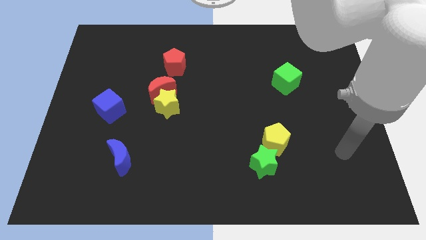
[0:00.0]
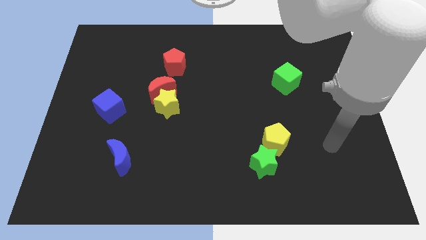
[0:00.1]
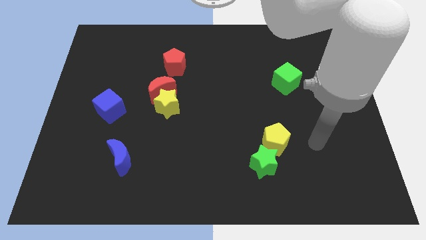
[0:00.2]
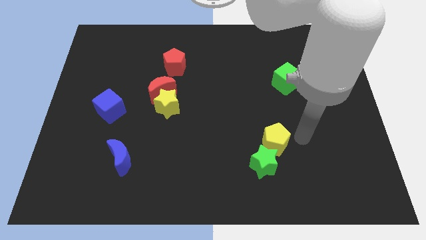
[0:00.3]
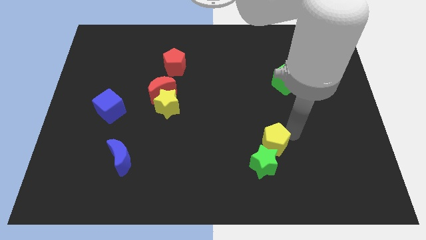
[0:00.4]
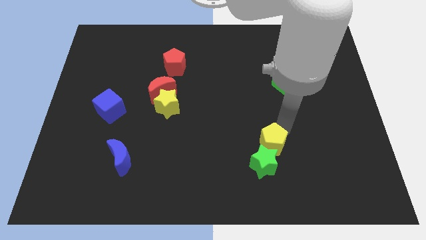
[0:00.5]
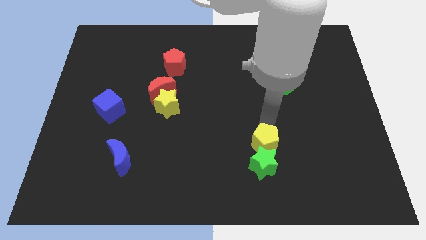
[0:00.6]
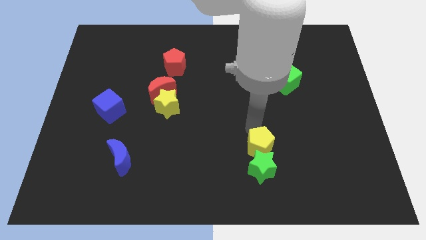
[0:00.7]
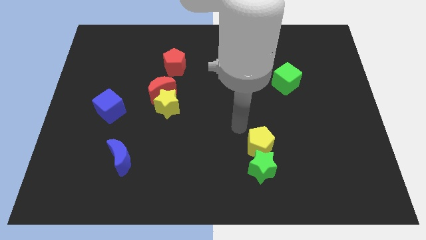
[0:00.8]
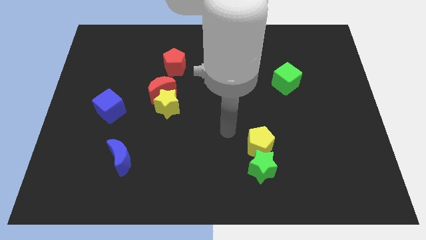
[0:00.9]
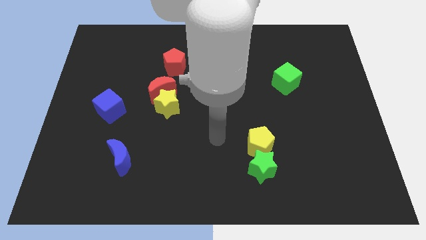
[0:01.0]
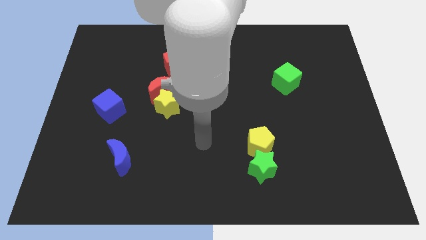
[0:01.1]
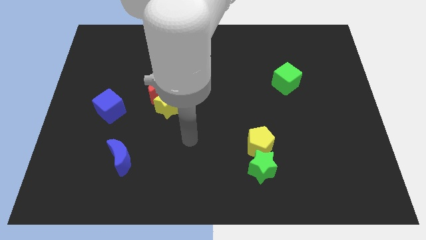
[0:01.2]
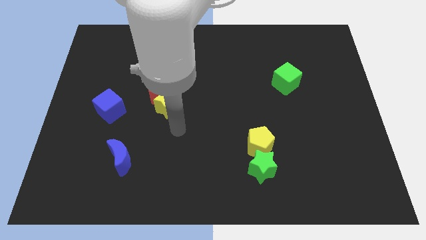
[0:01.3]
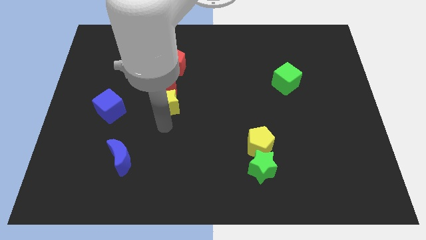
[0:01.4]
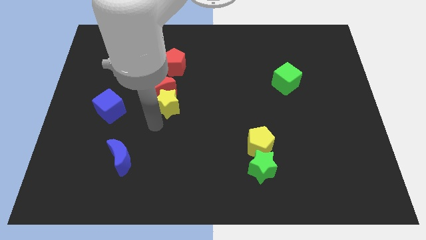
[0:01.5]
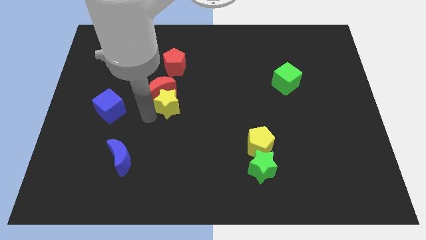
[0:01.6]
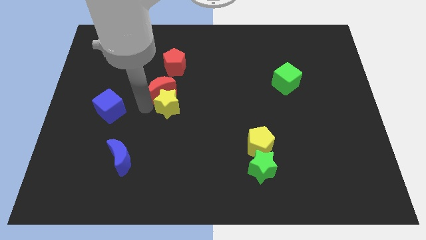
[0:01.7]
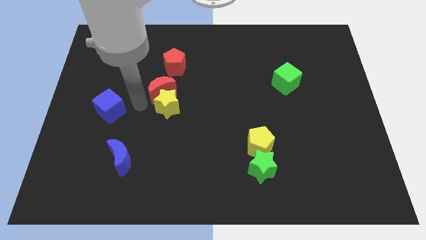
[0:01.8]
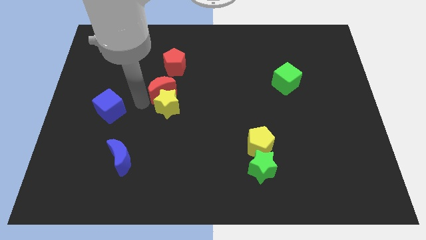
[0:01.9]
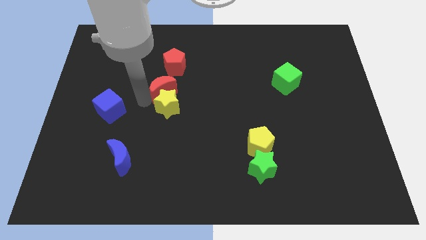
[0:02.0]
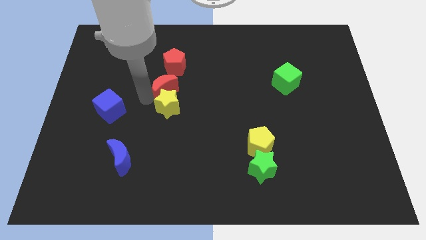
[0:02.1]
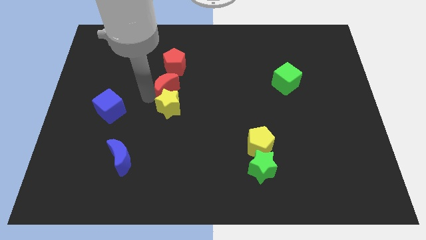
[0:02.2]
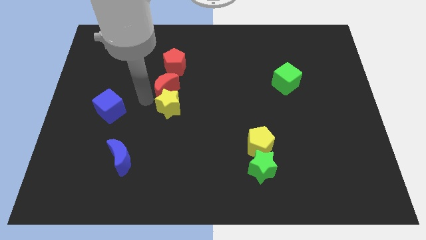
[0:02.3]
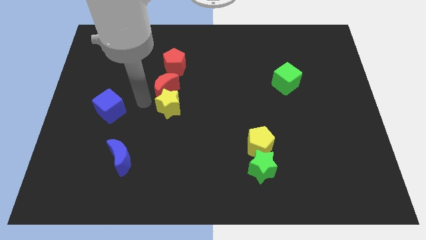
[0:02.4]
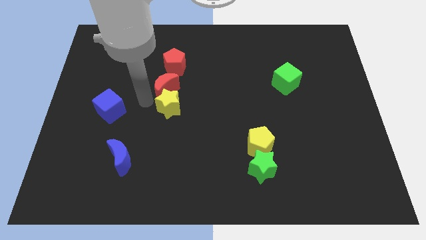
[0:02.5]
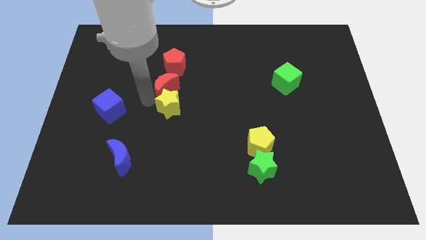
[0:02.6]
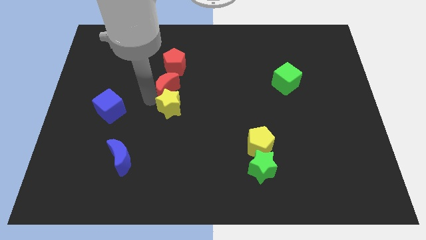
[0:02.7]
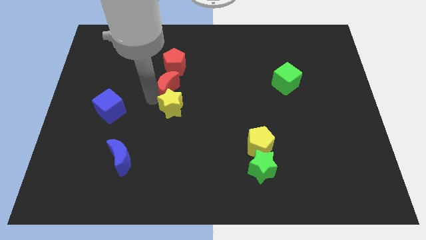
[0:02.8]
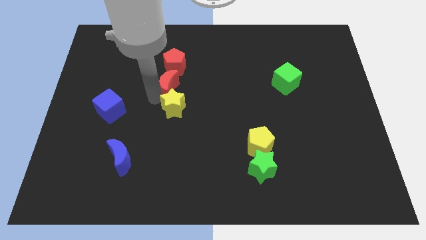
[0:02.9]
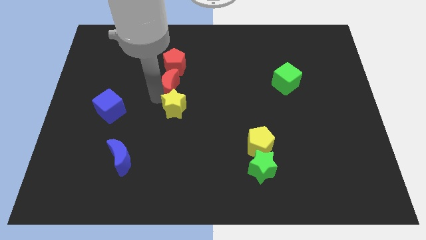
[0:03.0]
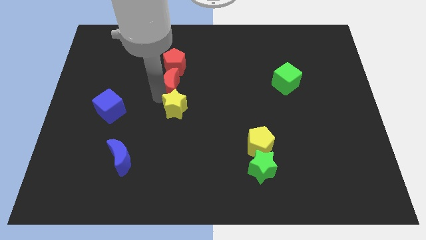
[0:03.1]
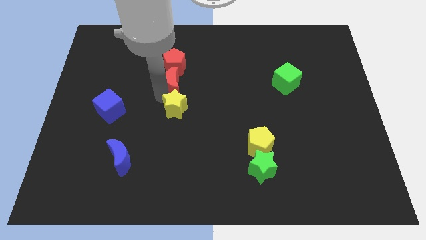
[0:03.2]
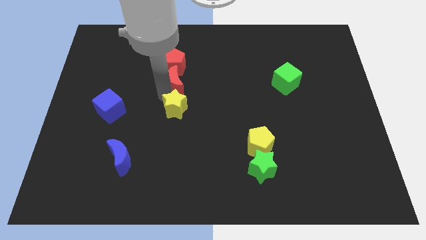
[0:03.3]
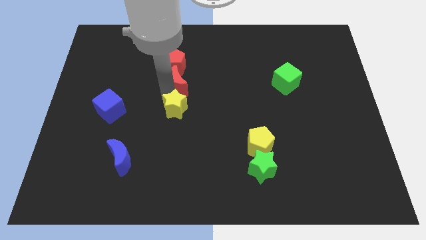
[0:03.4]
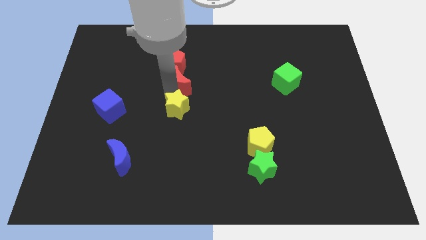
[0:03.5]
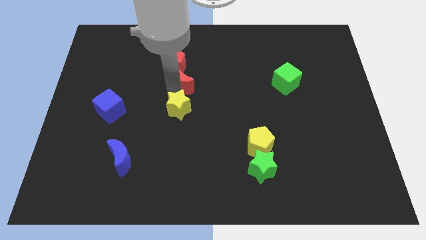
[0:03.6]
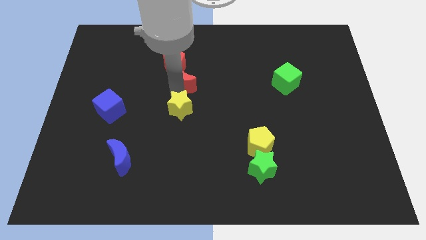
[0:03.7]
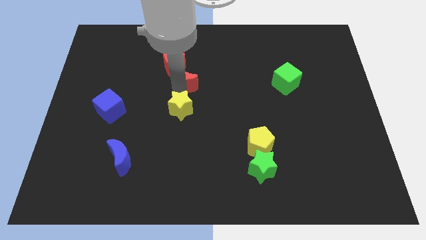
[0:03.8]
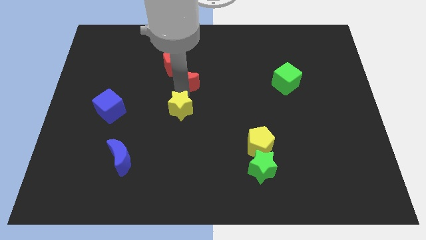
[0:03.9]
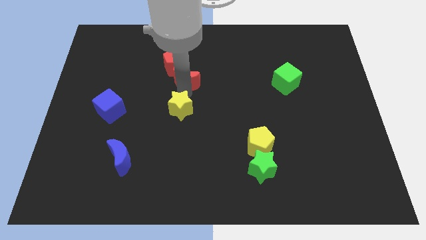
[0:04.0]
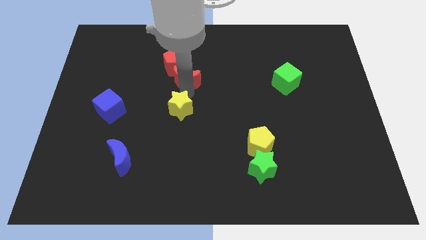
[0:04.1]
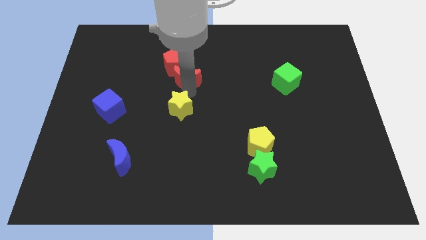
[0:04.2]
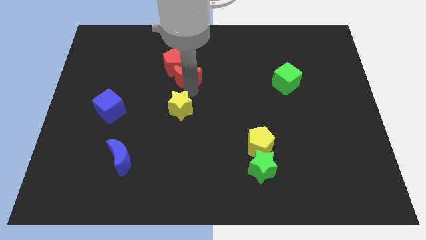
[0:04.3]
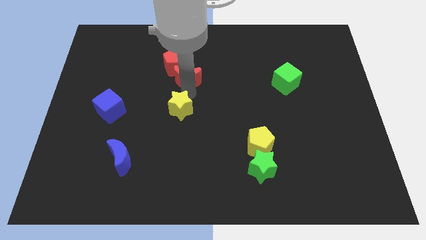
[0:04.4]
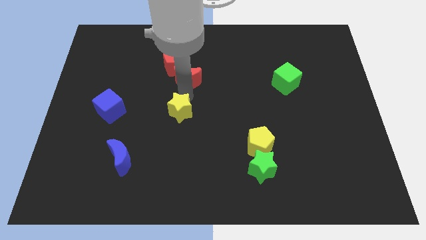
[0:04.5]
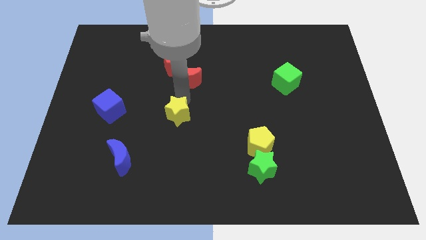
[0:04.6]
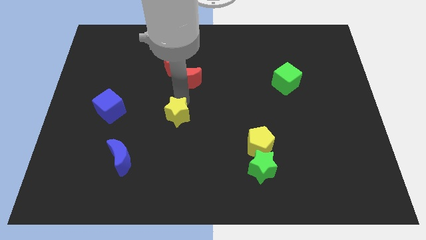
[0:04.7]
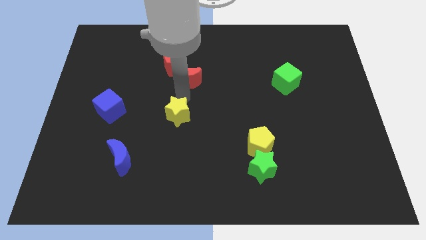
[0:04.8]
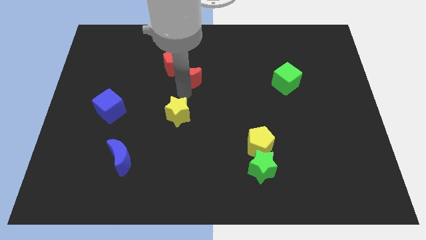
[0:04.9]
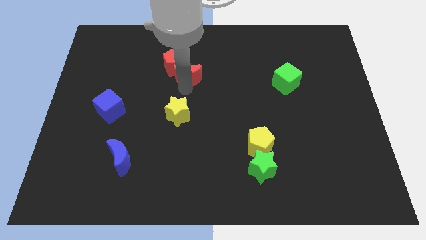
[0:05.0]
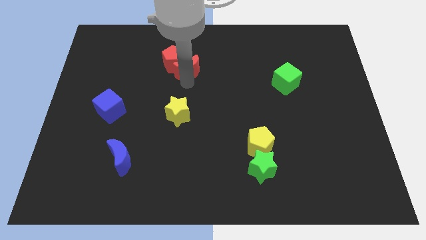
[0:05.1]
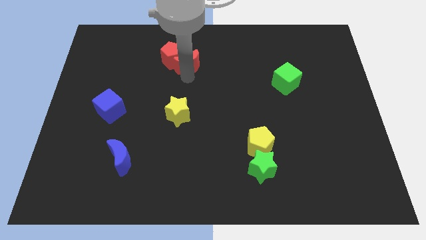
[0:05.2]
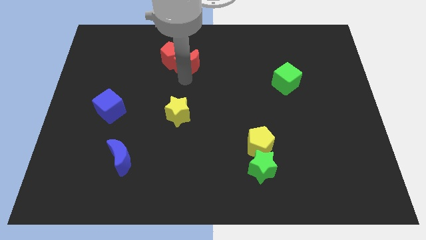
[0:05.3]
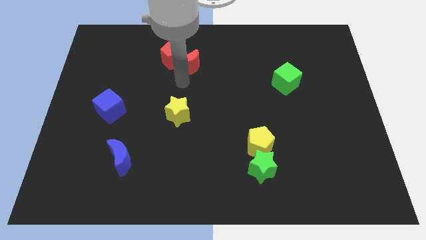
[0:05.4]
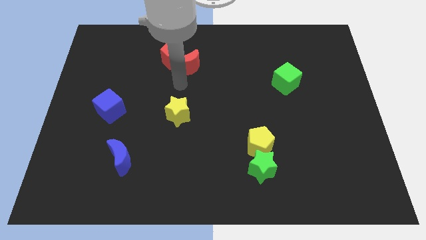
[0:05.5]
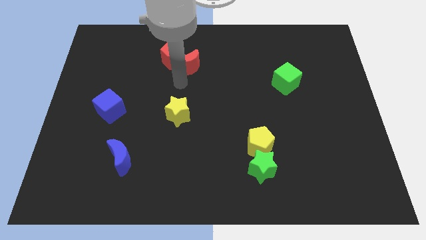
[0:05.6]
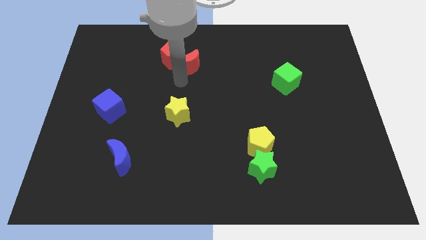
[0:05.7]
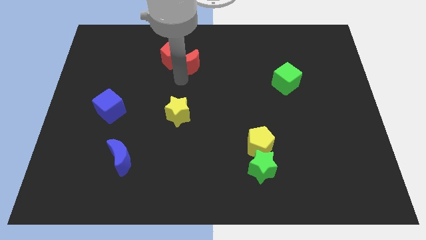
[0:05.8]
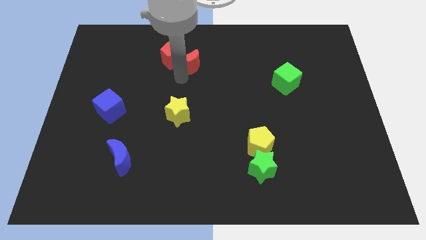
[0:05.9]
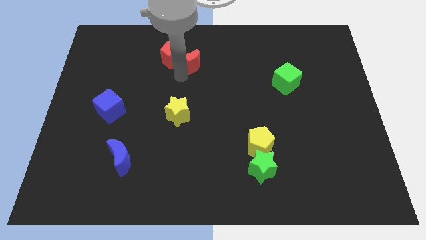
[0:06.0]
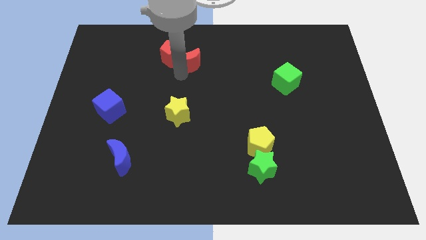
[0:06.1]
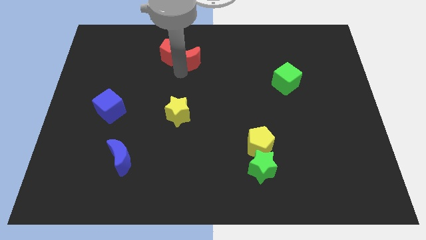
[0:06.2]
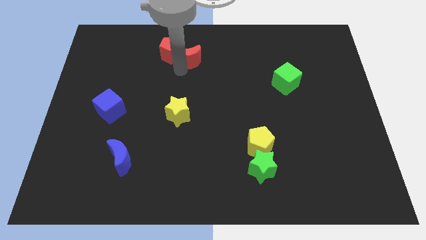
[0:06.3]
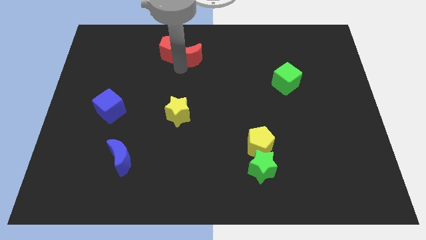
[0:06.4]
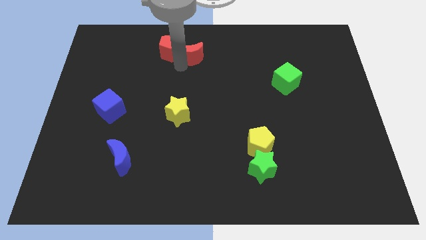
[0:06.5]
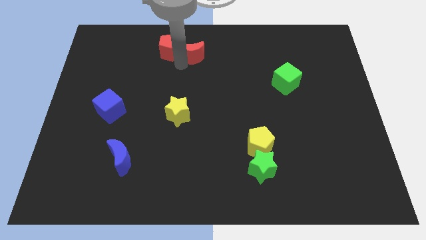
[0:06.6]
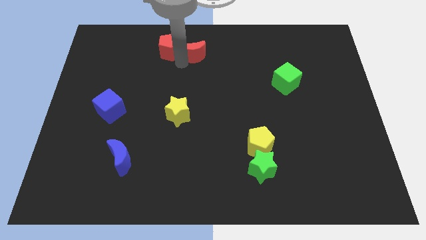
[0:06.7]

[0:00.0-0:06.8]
put the red moon to the top side
